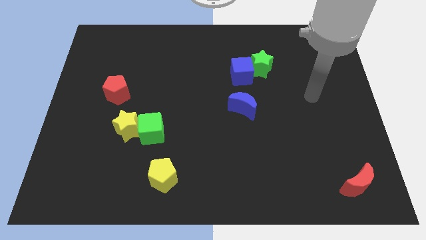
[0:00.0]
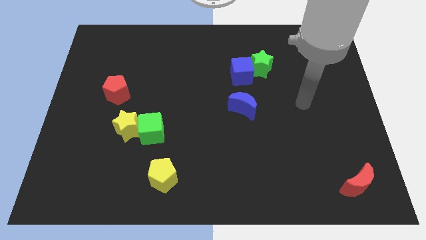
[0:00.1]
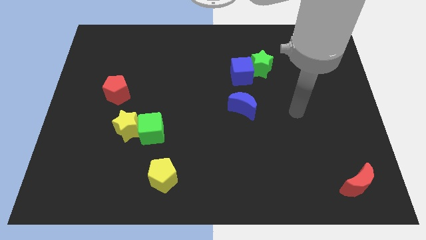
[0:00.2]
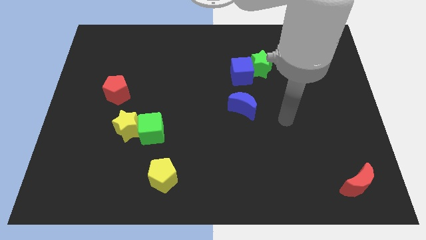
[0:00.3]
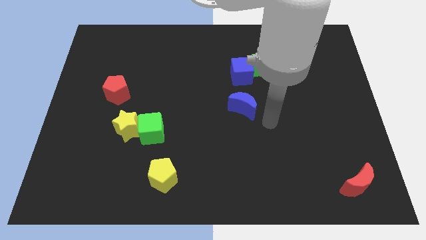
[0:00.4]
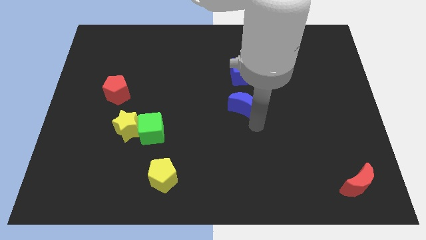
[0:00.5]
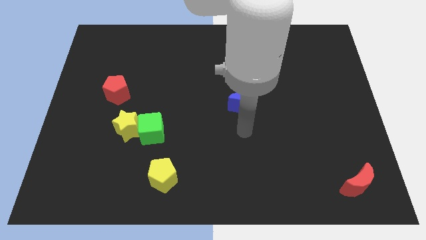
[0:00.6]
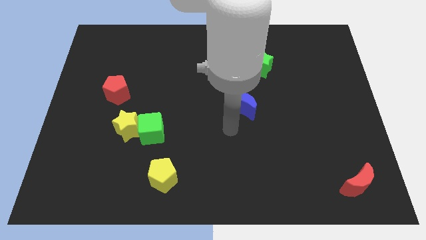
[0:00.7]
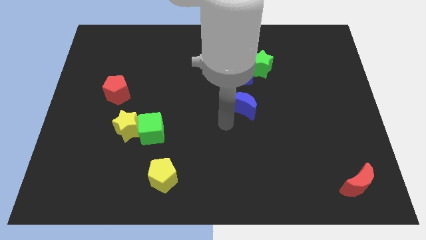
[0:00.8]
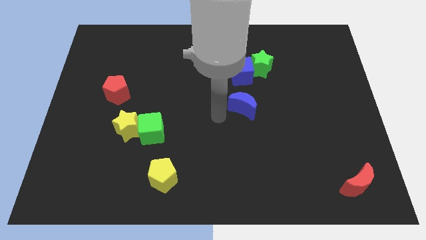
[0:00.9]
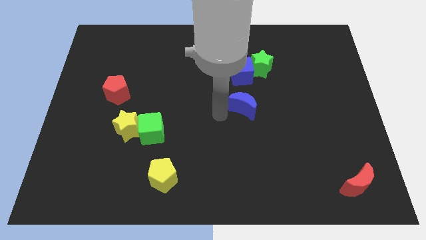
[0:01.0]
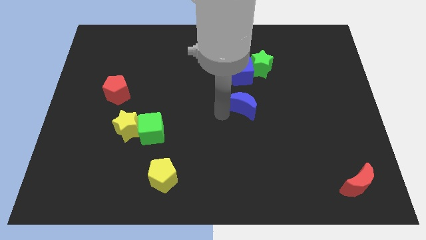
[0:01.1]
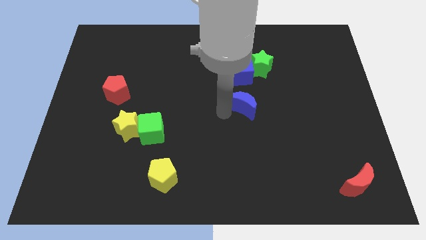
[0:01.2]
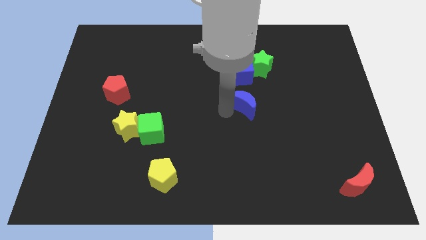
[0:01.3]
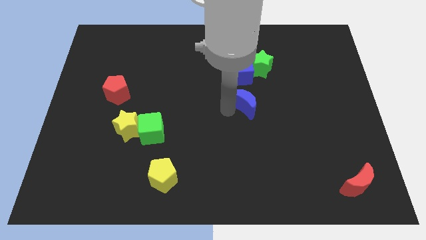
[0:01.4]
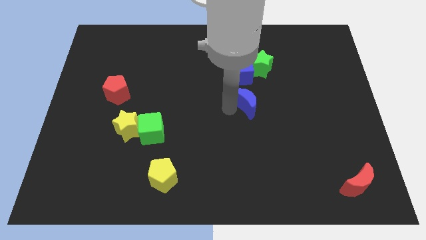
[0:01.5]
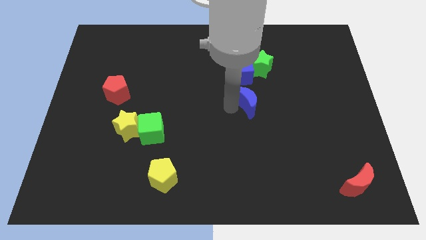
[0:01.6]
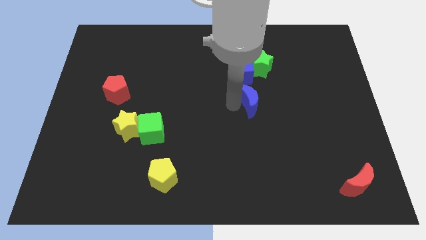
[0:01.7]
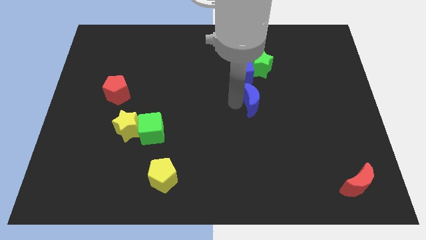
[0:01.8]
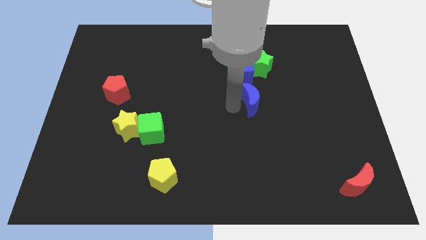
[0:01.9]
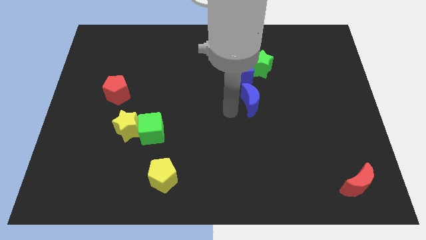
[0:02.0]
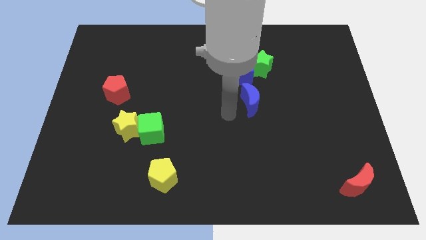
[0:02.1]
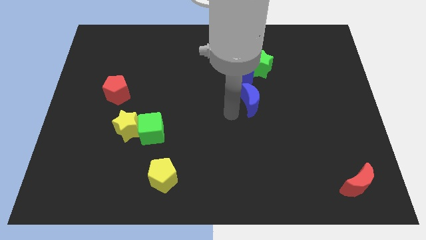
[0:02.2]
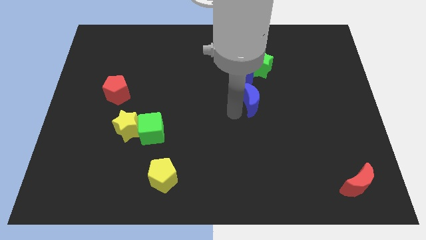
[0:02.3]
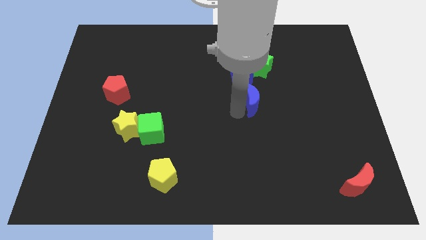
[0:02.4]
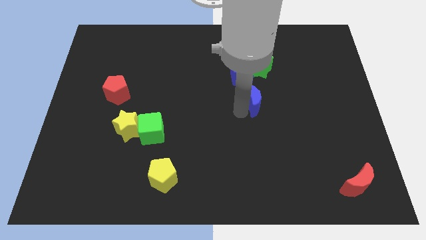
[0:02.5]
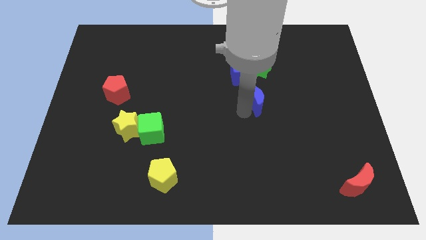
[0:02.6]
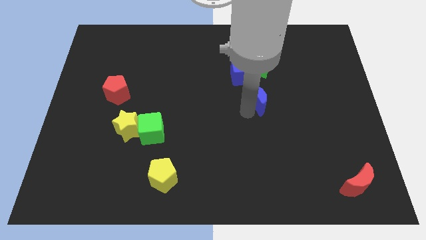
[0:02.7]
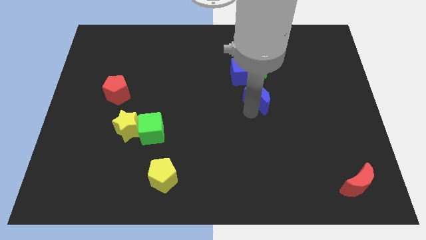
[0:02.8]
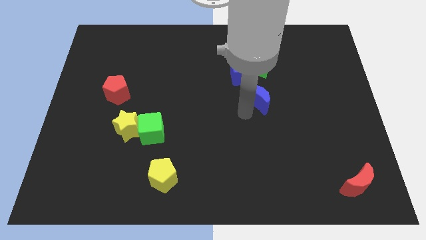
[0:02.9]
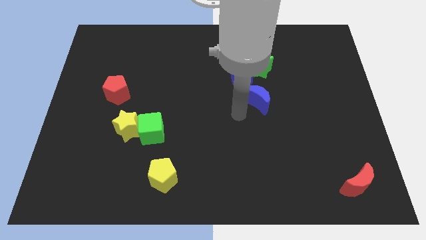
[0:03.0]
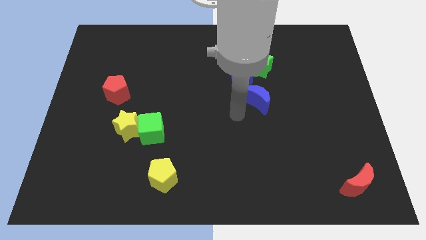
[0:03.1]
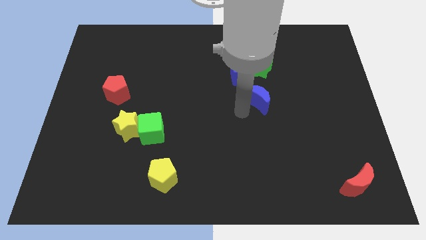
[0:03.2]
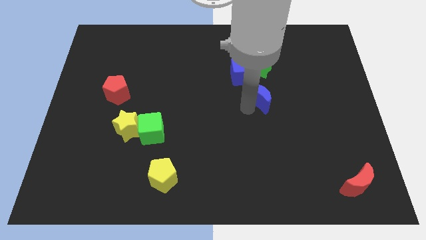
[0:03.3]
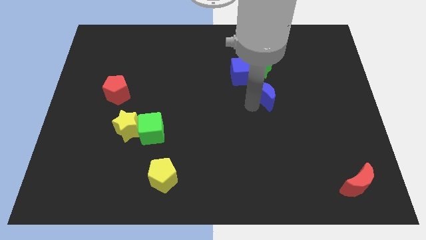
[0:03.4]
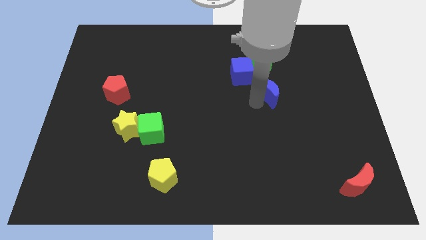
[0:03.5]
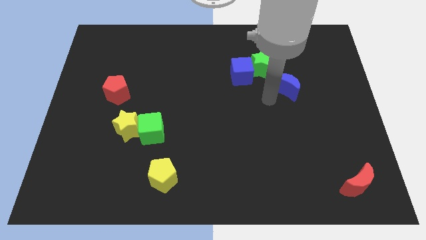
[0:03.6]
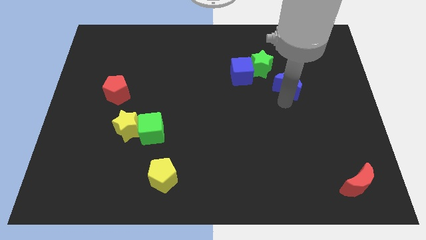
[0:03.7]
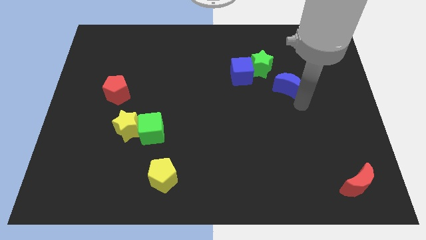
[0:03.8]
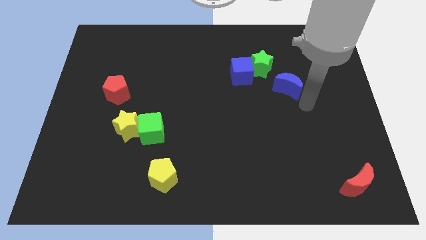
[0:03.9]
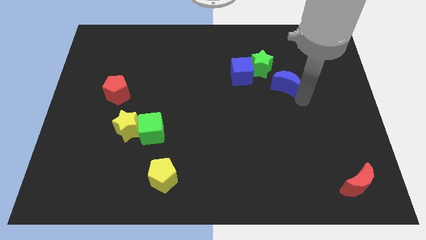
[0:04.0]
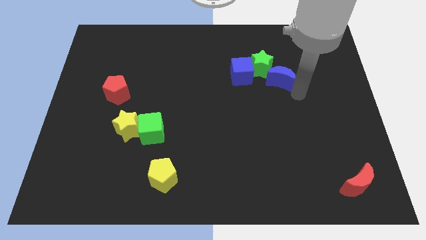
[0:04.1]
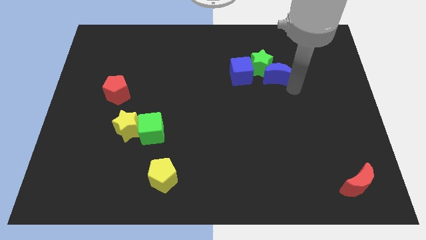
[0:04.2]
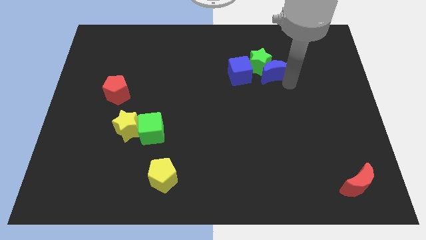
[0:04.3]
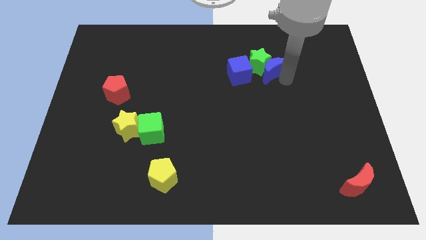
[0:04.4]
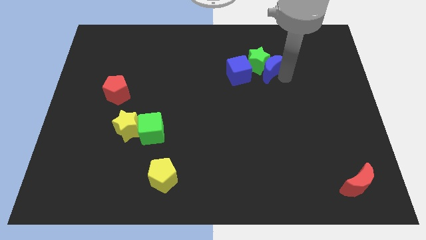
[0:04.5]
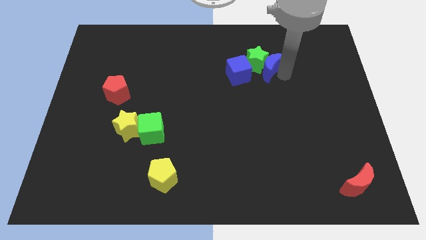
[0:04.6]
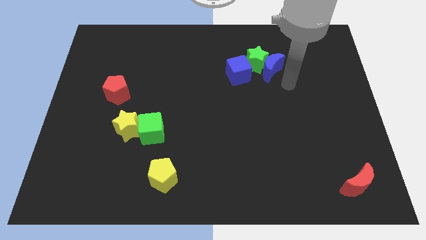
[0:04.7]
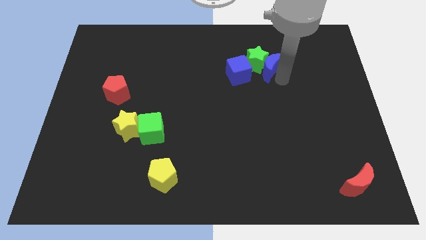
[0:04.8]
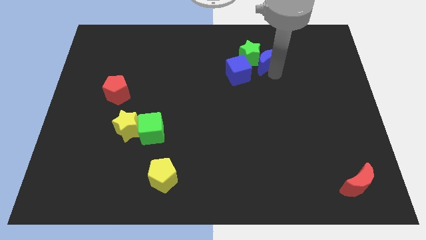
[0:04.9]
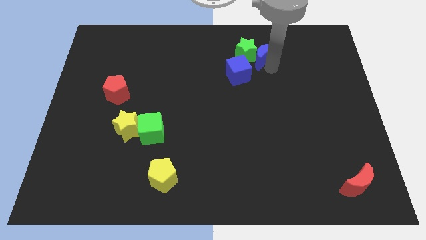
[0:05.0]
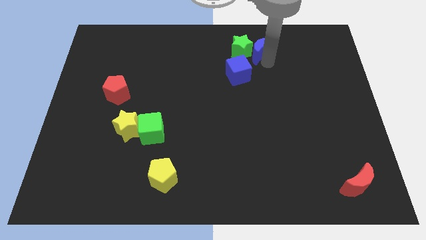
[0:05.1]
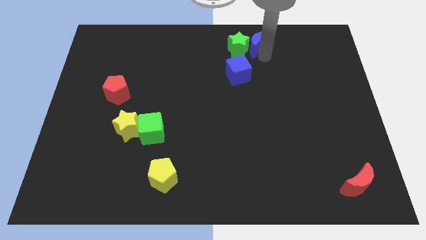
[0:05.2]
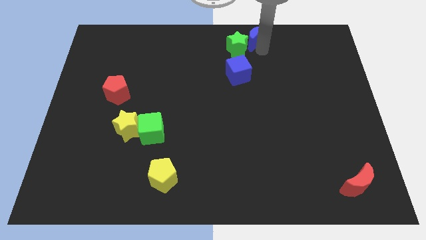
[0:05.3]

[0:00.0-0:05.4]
slide the blue moon to the towards your base

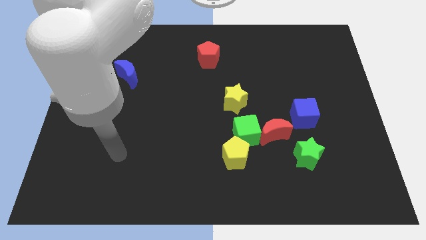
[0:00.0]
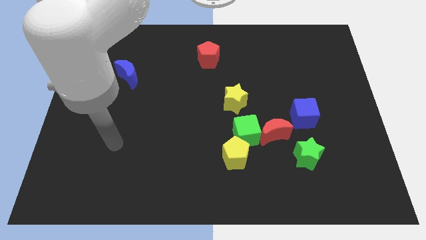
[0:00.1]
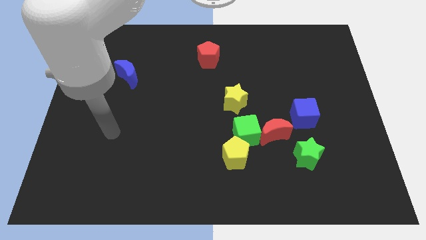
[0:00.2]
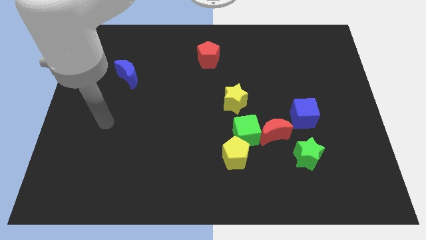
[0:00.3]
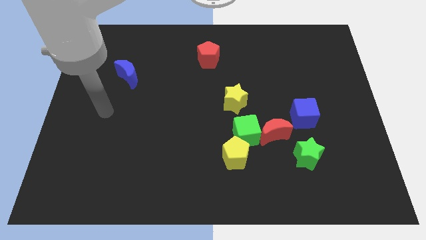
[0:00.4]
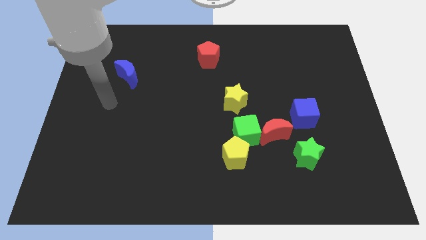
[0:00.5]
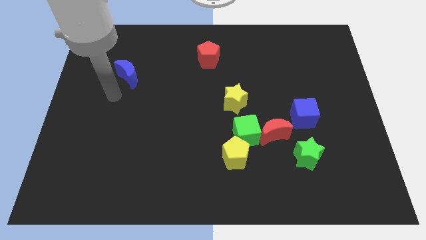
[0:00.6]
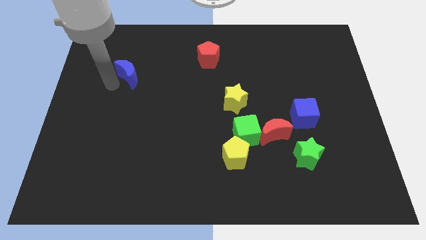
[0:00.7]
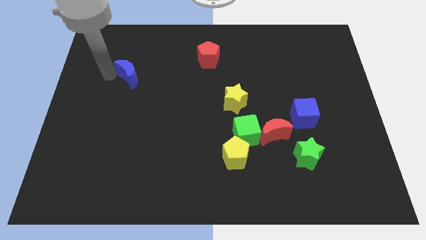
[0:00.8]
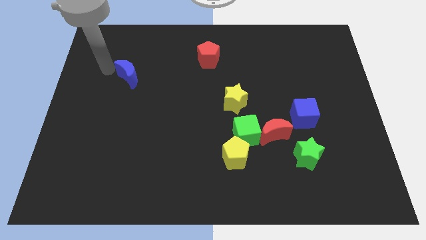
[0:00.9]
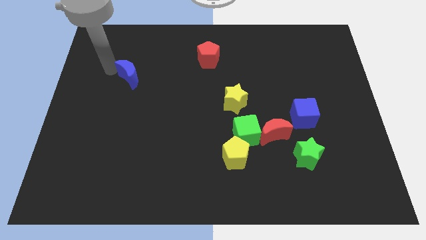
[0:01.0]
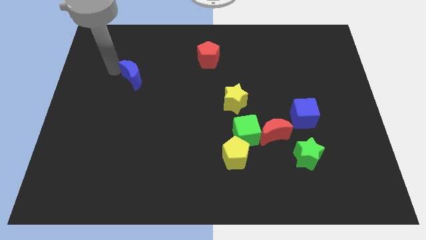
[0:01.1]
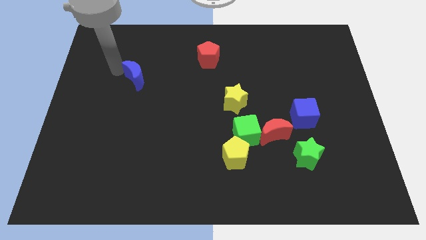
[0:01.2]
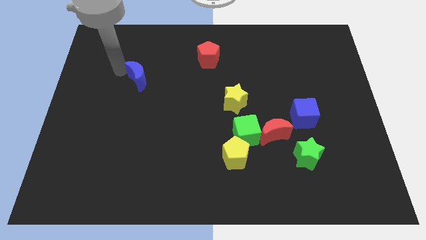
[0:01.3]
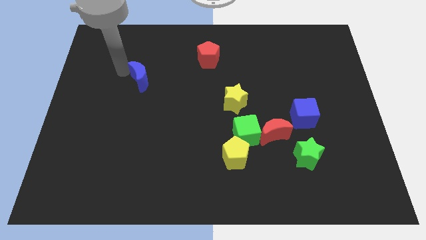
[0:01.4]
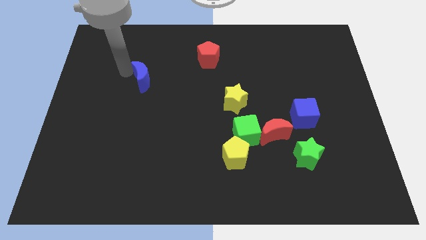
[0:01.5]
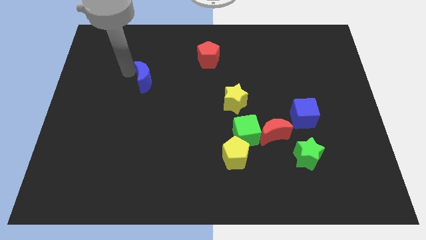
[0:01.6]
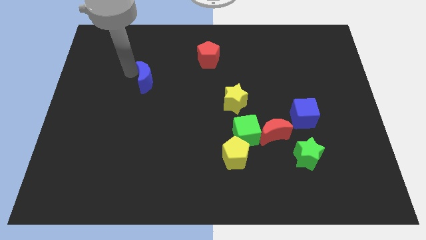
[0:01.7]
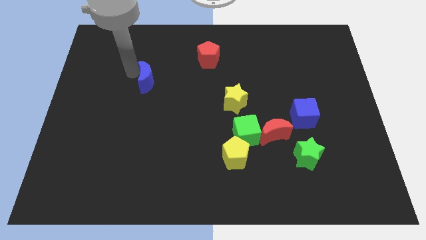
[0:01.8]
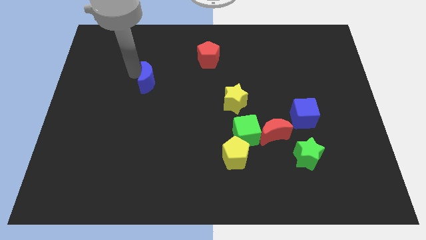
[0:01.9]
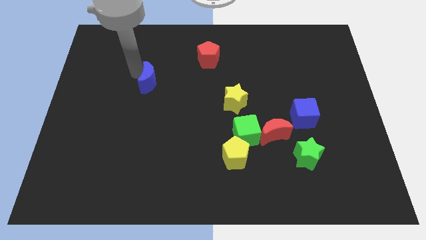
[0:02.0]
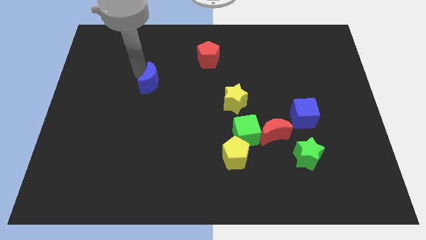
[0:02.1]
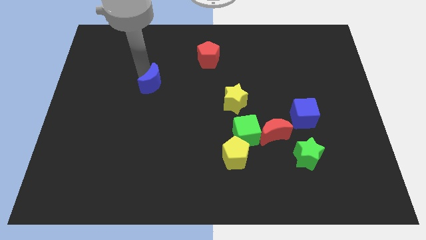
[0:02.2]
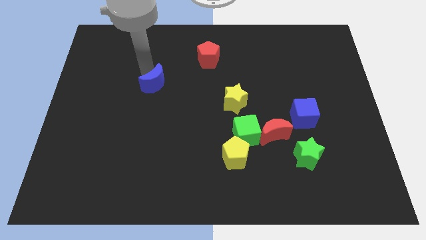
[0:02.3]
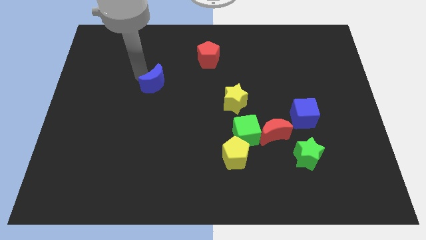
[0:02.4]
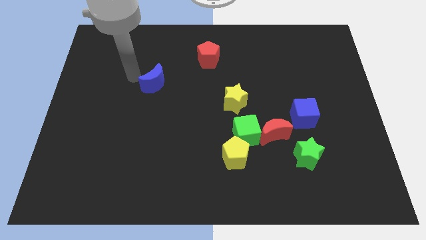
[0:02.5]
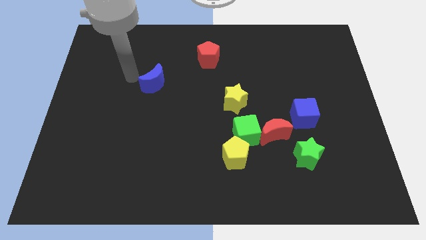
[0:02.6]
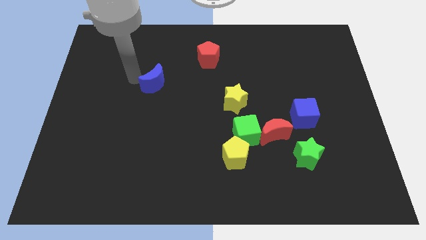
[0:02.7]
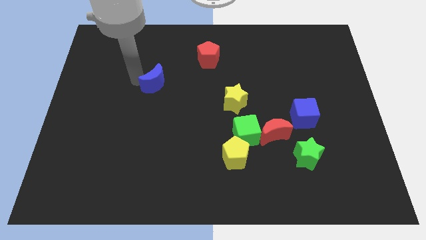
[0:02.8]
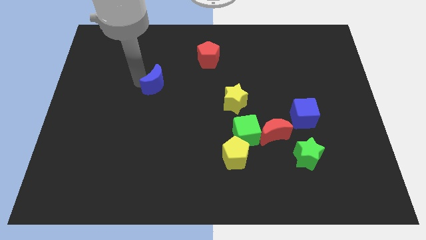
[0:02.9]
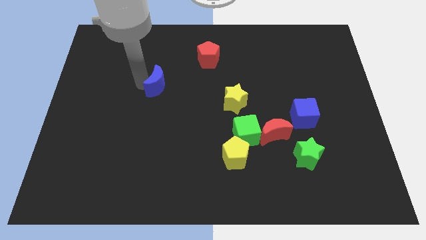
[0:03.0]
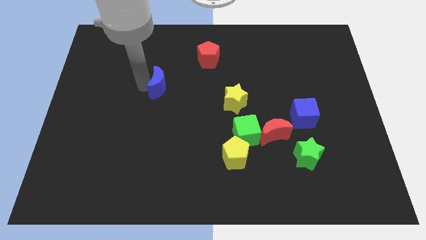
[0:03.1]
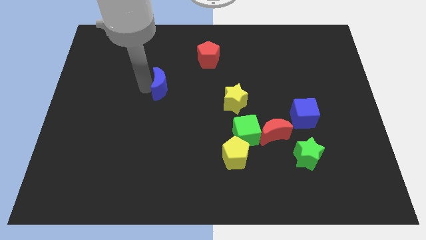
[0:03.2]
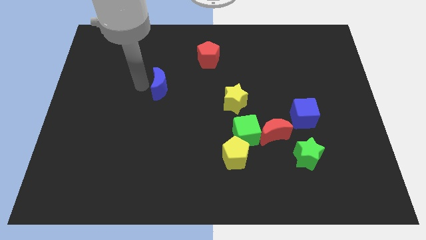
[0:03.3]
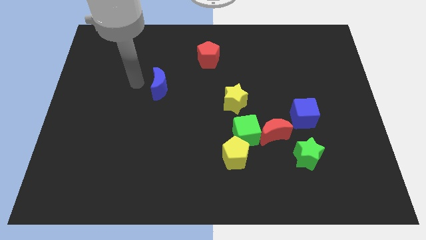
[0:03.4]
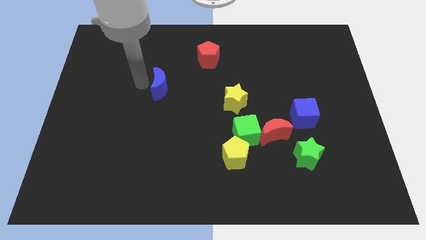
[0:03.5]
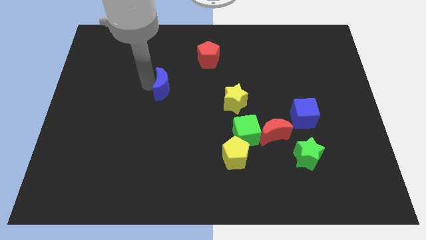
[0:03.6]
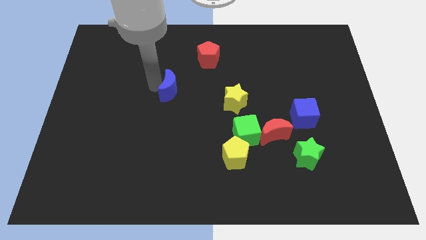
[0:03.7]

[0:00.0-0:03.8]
move the blue moon to the center of the board
